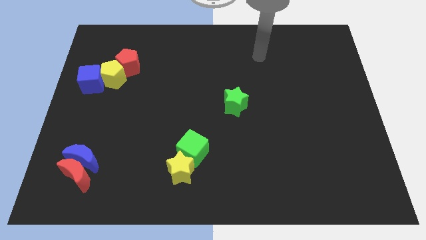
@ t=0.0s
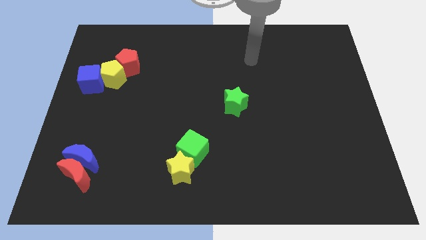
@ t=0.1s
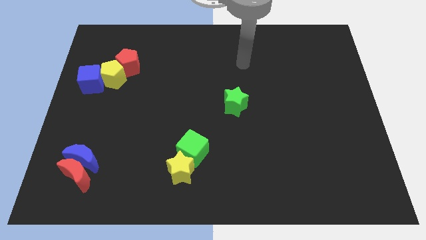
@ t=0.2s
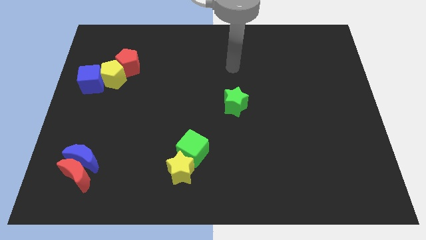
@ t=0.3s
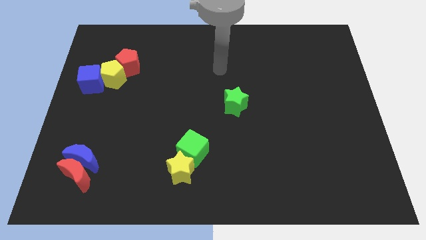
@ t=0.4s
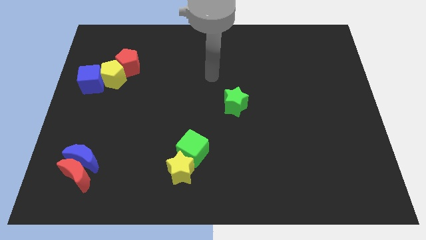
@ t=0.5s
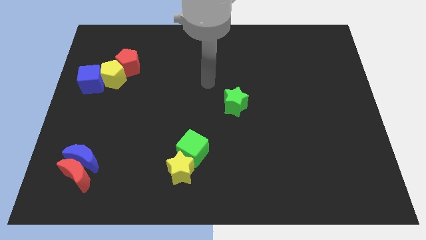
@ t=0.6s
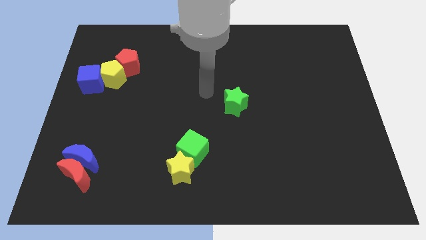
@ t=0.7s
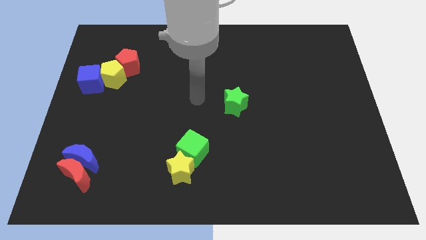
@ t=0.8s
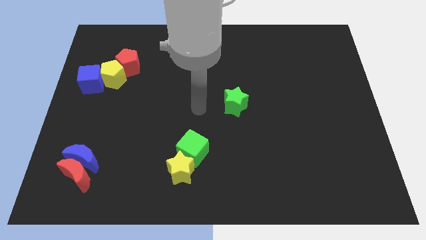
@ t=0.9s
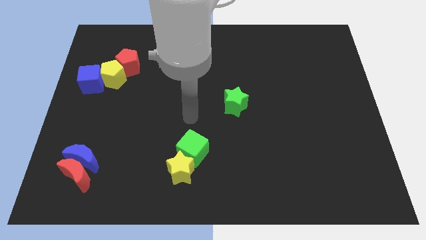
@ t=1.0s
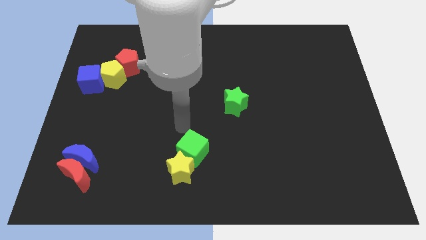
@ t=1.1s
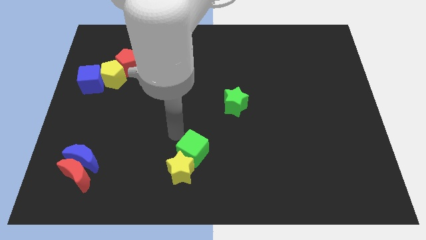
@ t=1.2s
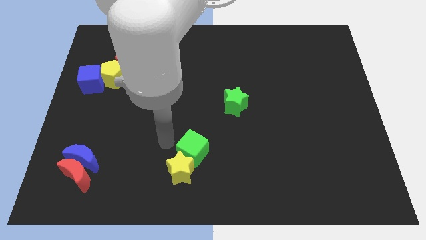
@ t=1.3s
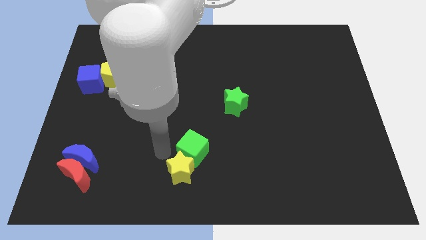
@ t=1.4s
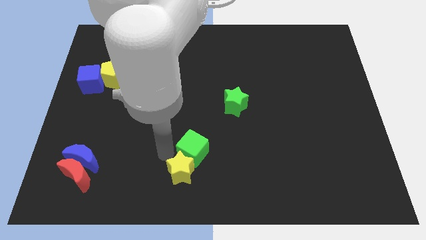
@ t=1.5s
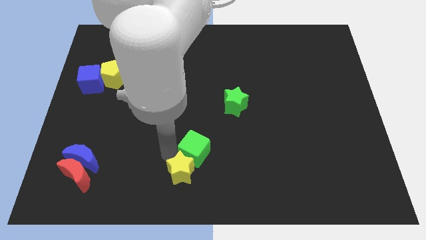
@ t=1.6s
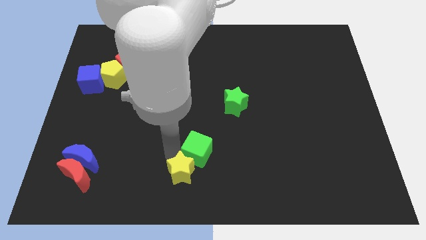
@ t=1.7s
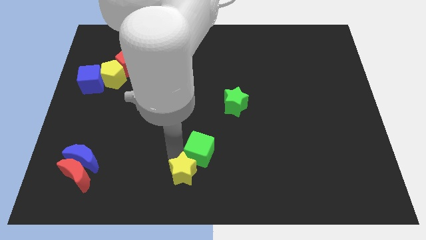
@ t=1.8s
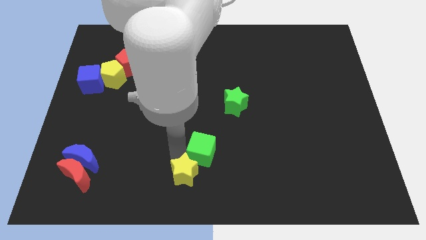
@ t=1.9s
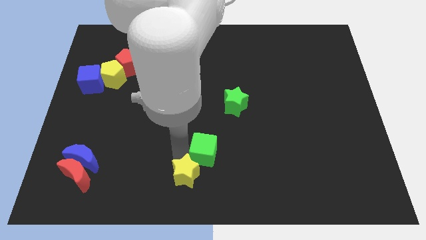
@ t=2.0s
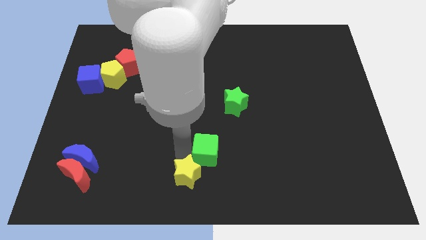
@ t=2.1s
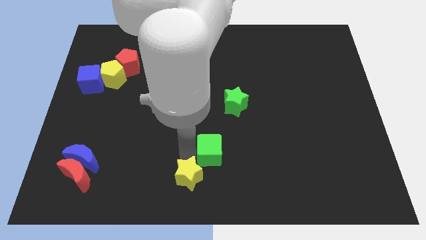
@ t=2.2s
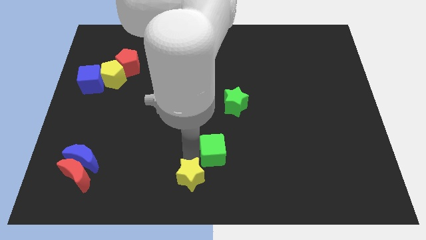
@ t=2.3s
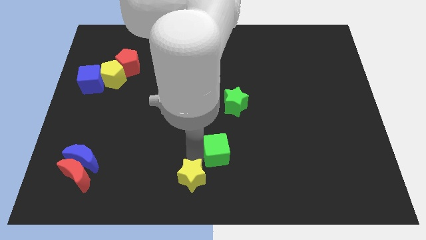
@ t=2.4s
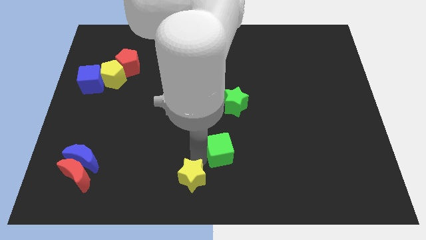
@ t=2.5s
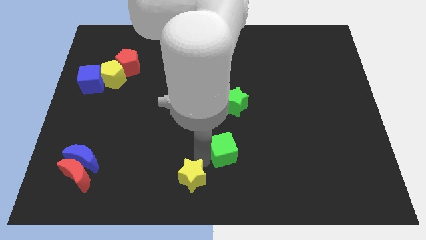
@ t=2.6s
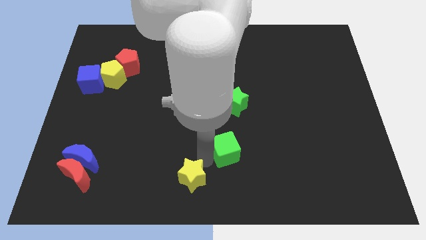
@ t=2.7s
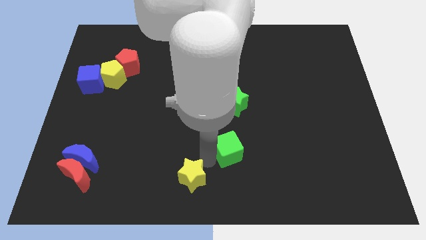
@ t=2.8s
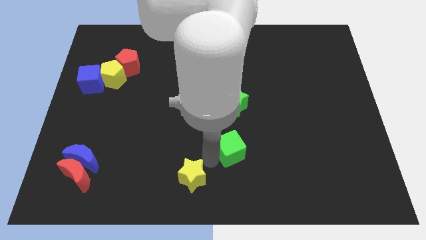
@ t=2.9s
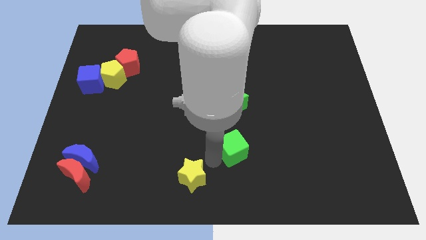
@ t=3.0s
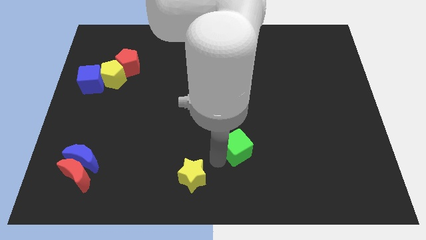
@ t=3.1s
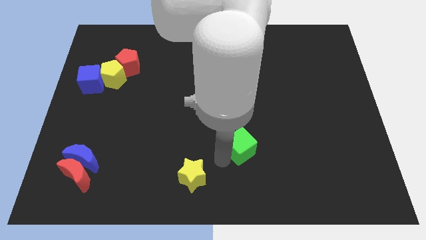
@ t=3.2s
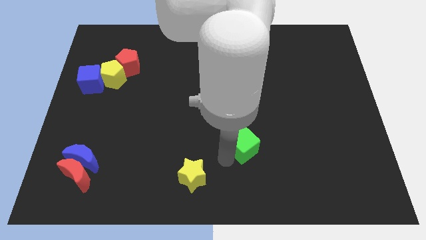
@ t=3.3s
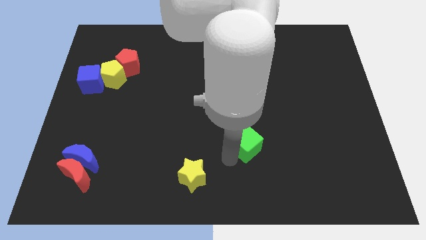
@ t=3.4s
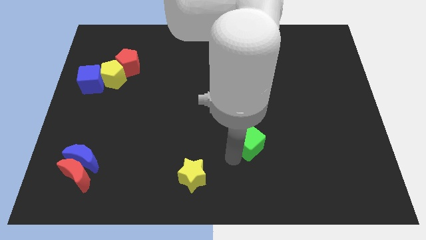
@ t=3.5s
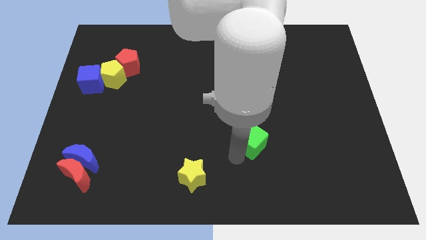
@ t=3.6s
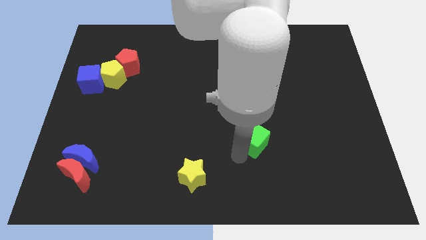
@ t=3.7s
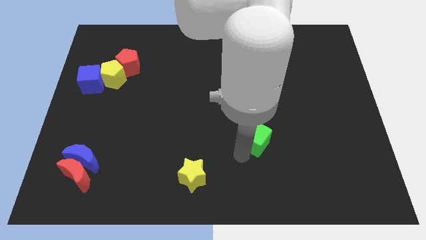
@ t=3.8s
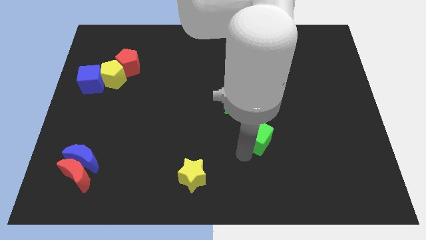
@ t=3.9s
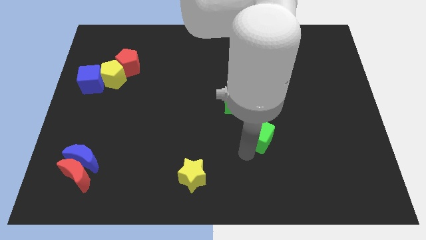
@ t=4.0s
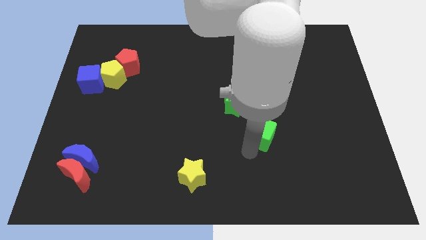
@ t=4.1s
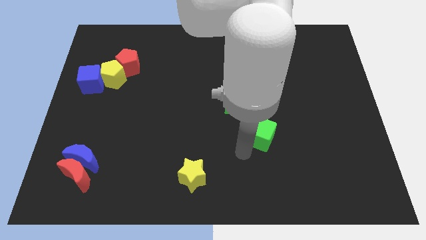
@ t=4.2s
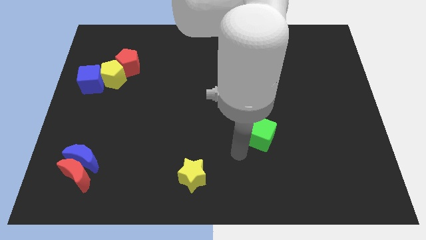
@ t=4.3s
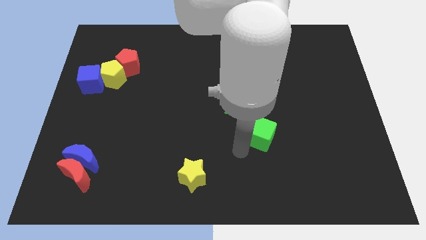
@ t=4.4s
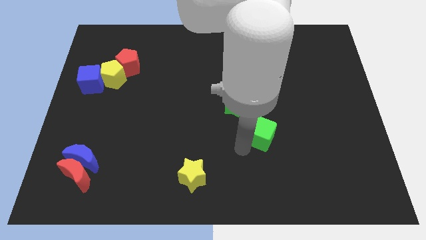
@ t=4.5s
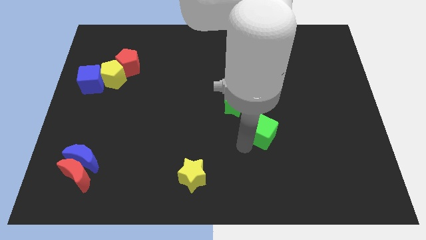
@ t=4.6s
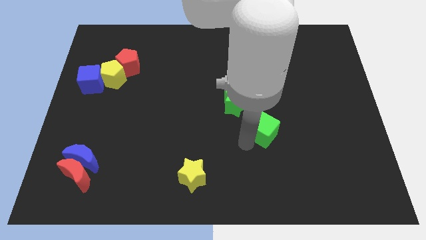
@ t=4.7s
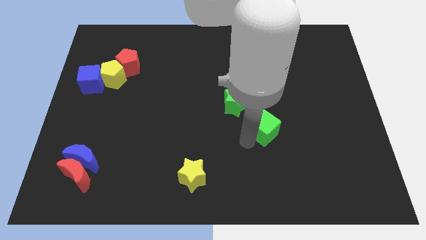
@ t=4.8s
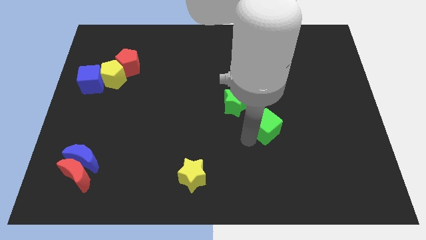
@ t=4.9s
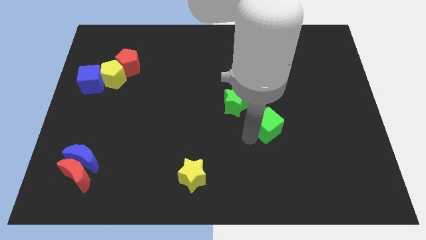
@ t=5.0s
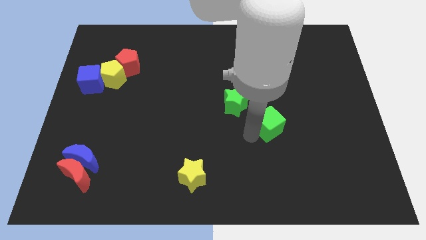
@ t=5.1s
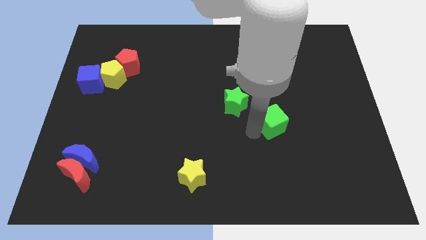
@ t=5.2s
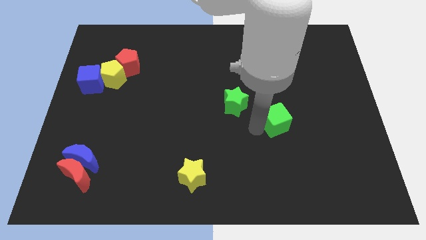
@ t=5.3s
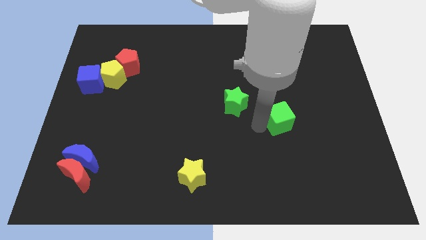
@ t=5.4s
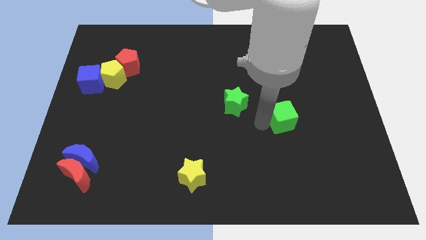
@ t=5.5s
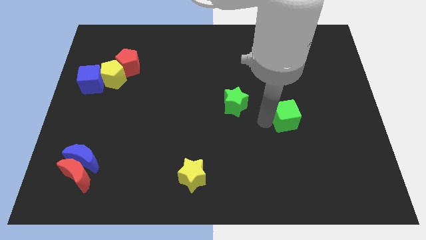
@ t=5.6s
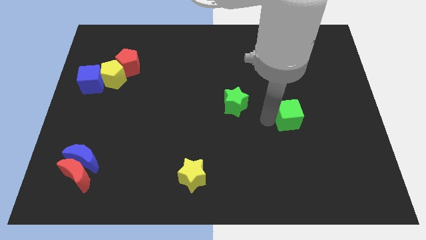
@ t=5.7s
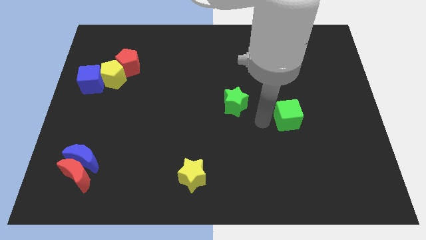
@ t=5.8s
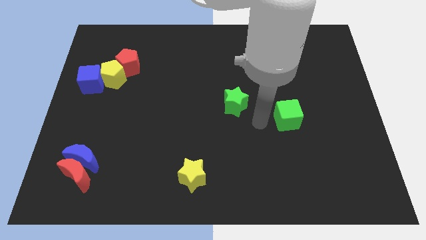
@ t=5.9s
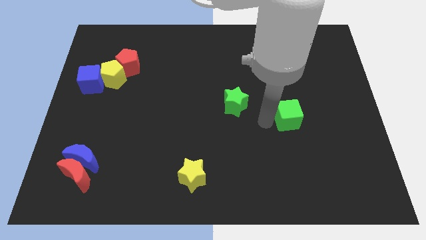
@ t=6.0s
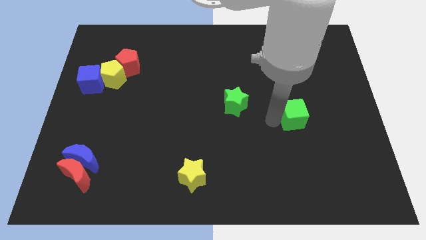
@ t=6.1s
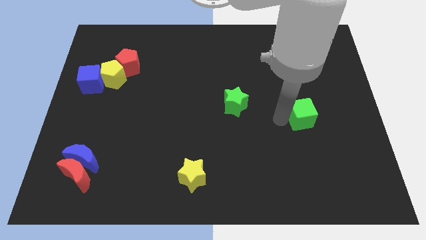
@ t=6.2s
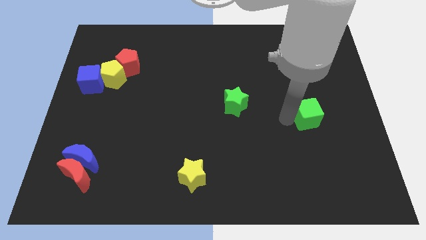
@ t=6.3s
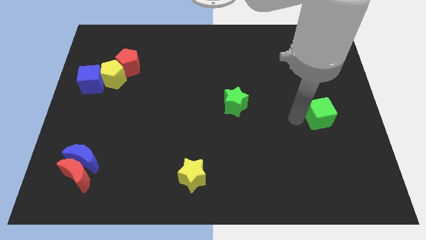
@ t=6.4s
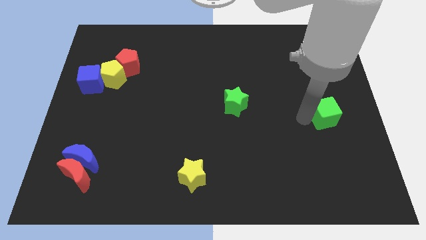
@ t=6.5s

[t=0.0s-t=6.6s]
push the green cube to the right side of the board
